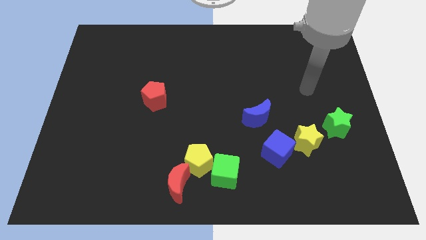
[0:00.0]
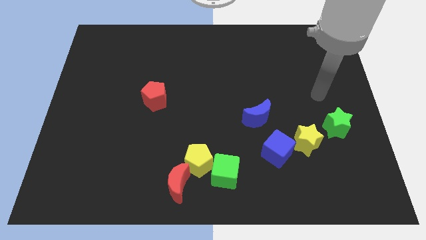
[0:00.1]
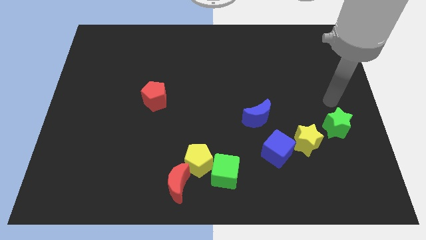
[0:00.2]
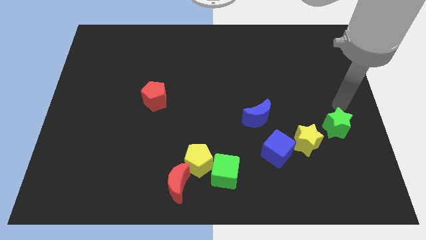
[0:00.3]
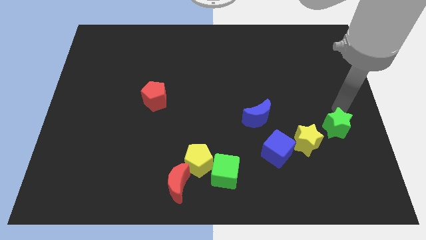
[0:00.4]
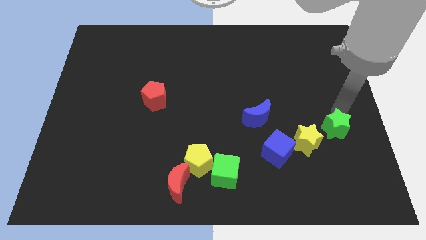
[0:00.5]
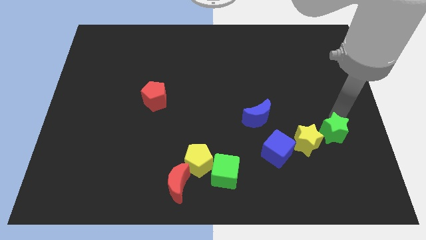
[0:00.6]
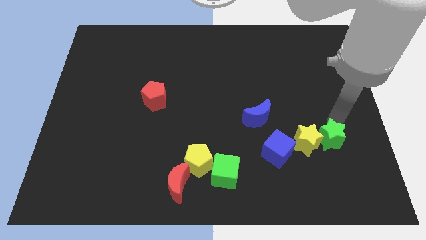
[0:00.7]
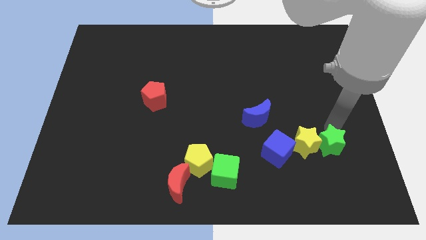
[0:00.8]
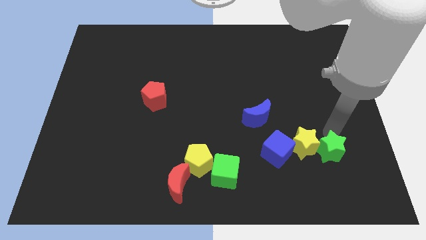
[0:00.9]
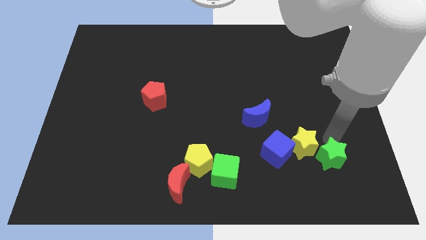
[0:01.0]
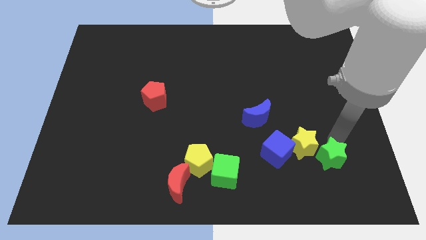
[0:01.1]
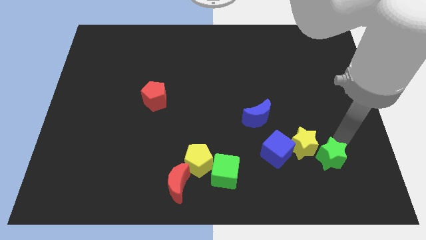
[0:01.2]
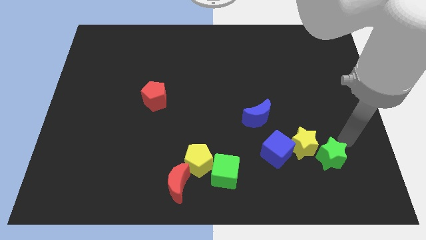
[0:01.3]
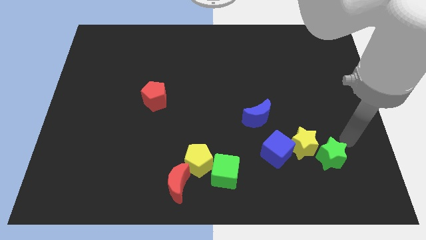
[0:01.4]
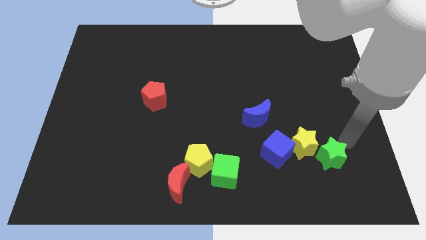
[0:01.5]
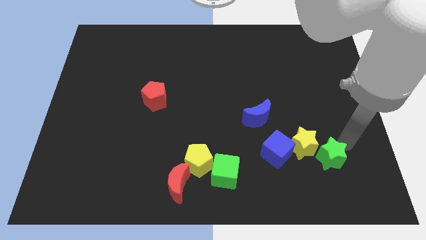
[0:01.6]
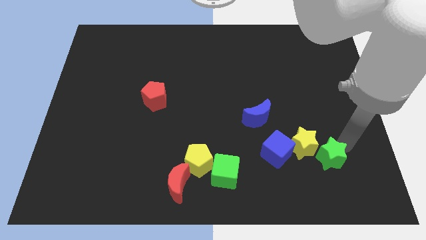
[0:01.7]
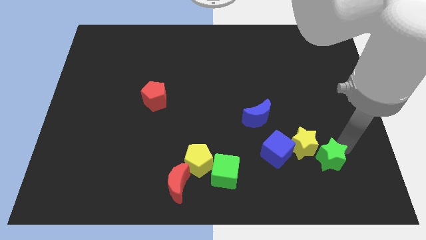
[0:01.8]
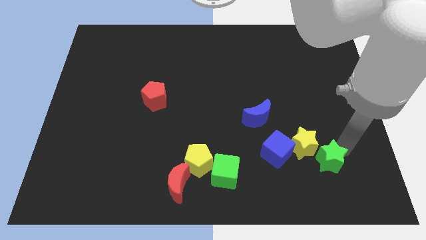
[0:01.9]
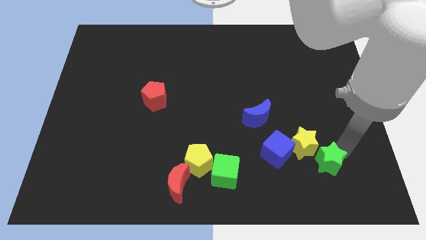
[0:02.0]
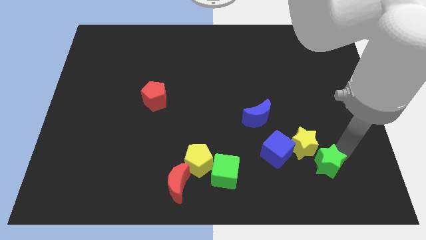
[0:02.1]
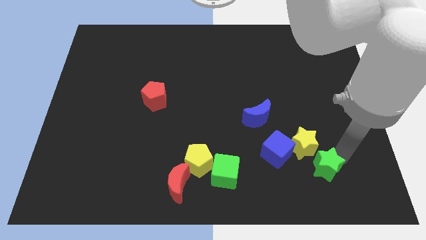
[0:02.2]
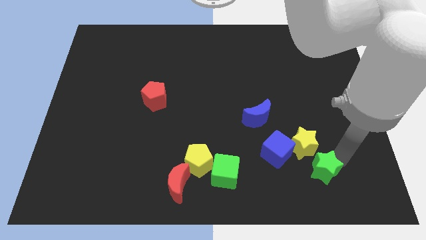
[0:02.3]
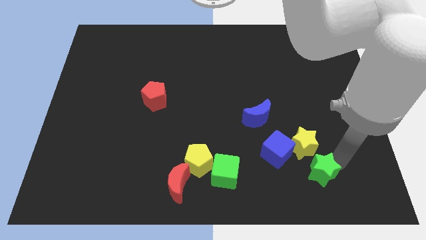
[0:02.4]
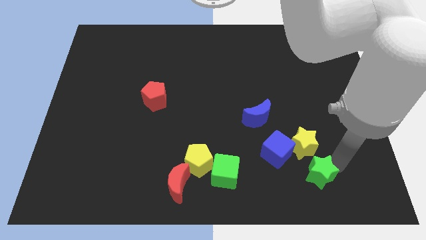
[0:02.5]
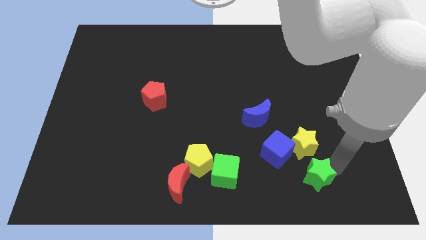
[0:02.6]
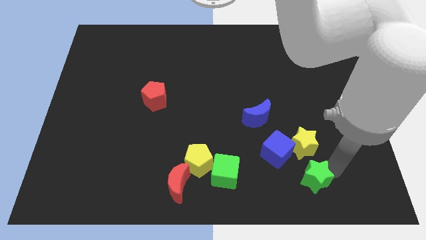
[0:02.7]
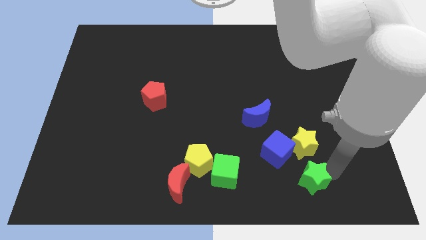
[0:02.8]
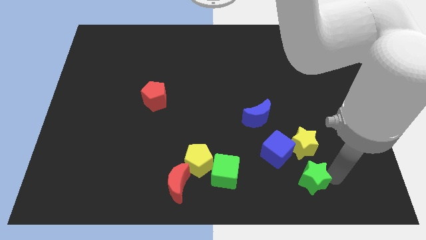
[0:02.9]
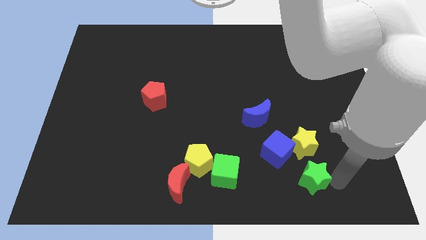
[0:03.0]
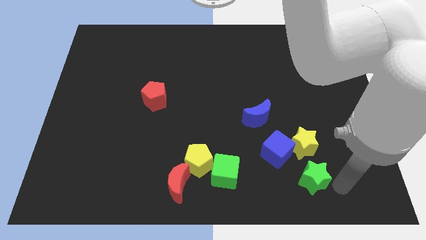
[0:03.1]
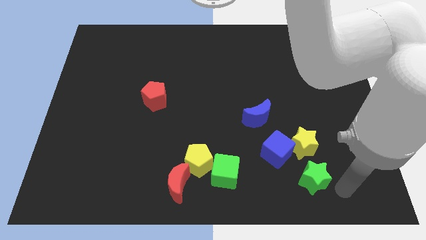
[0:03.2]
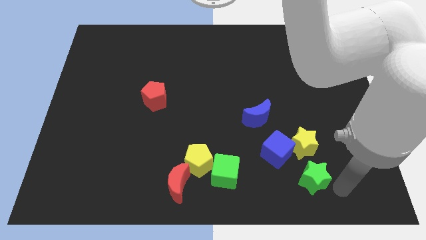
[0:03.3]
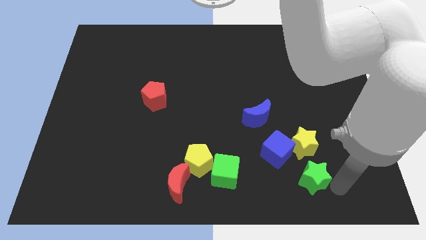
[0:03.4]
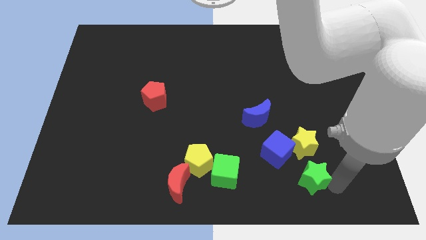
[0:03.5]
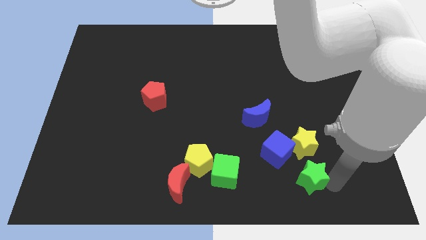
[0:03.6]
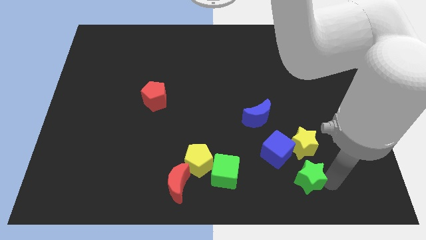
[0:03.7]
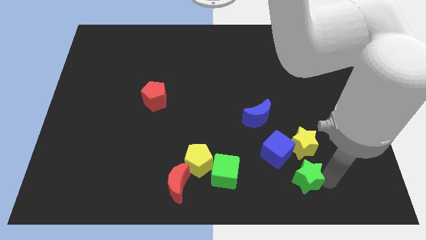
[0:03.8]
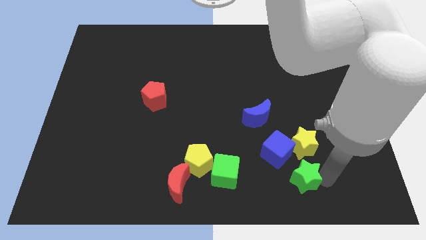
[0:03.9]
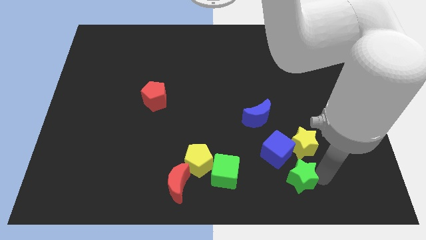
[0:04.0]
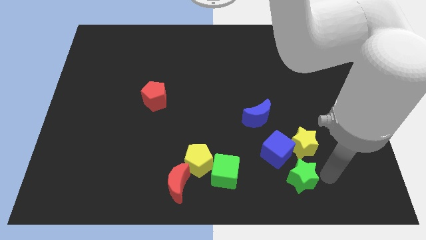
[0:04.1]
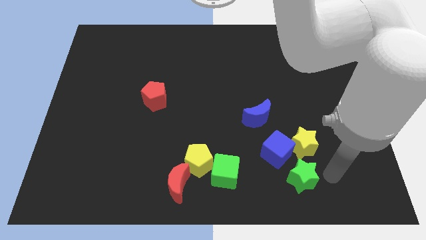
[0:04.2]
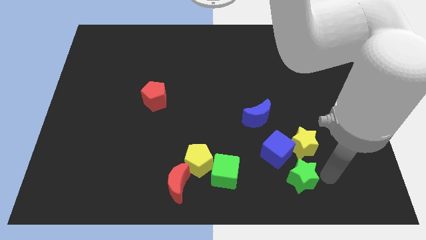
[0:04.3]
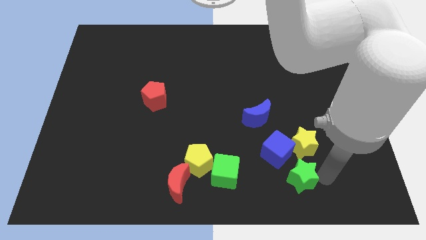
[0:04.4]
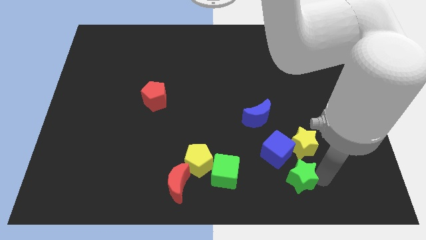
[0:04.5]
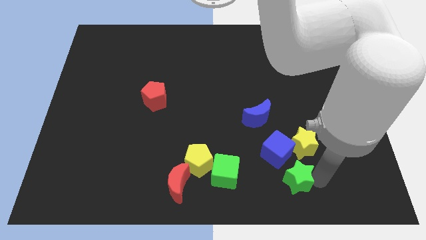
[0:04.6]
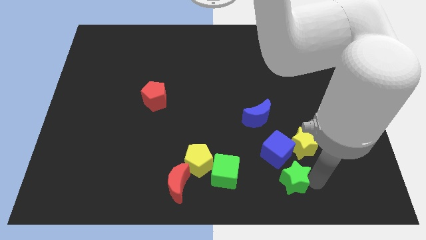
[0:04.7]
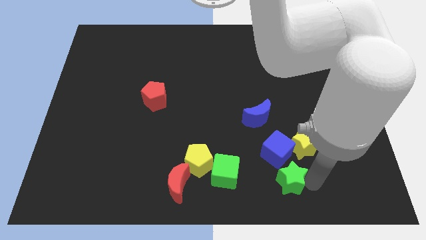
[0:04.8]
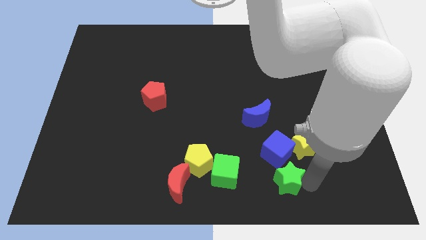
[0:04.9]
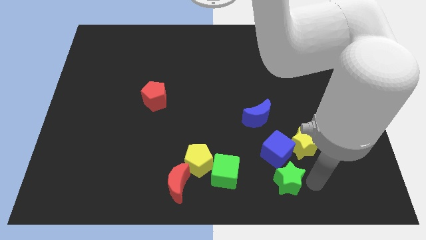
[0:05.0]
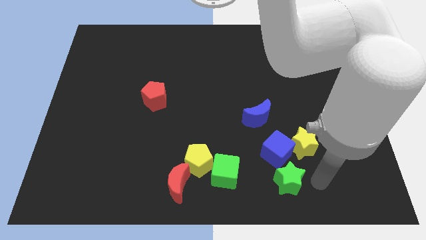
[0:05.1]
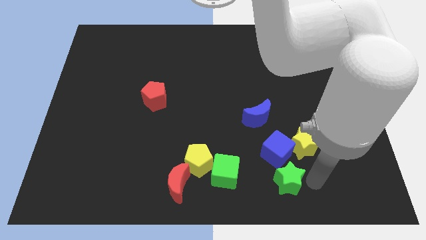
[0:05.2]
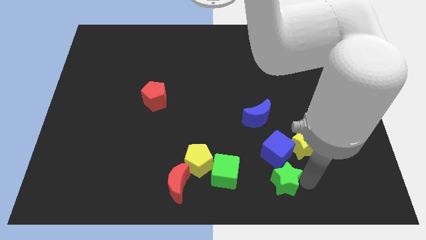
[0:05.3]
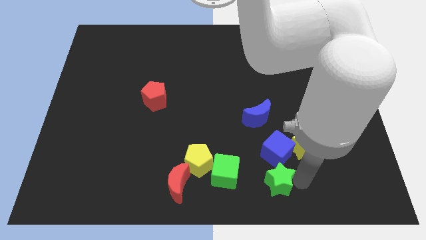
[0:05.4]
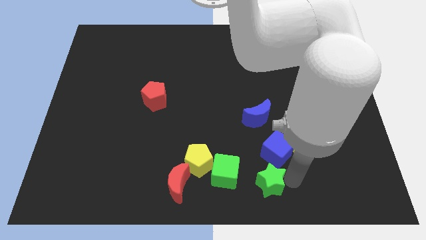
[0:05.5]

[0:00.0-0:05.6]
put the green star to the bottom side
